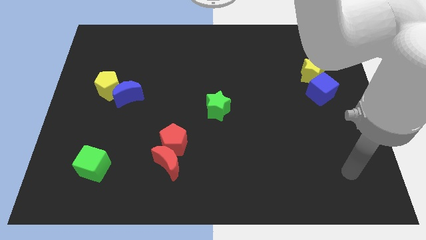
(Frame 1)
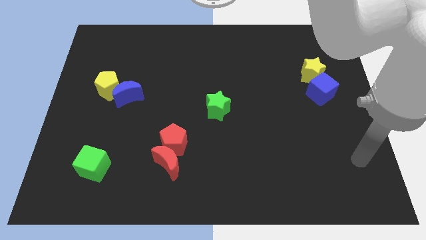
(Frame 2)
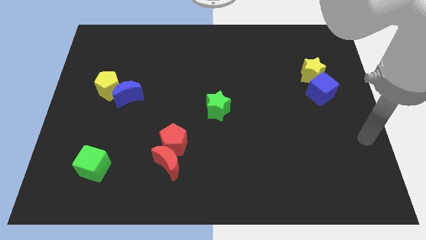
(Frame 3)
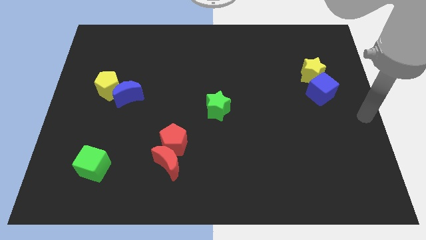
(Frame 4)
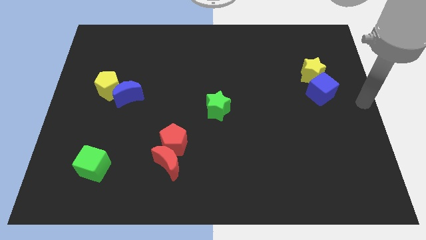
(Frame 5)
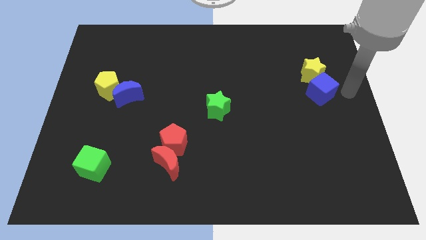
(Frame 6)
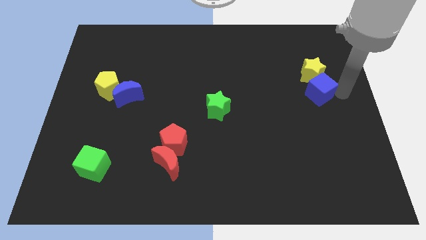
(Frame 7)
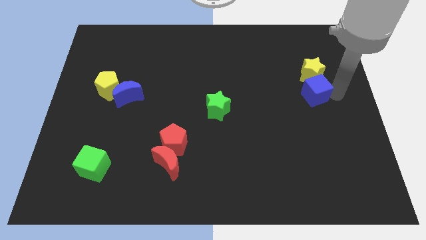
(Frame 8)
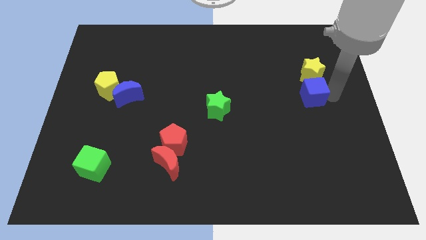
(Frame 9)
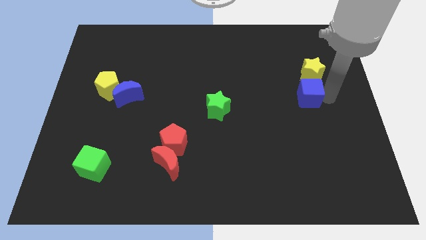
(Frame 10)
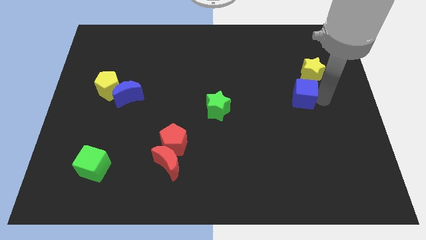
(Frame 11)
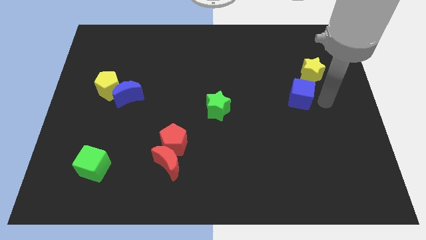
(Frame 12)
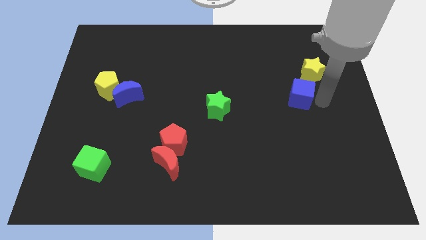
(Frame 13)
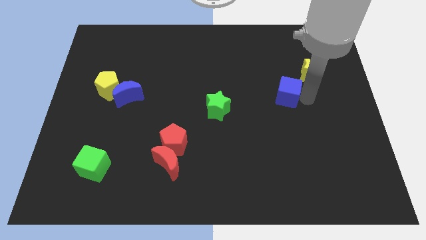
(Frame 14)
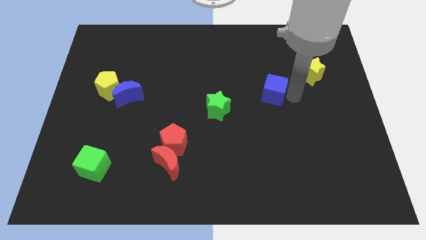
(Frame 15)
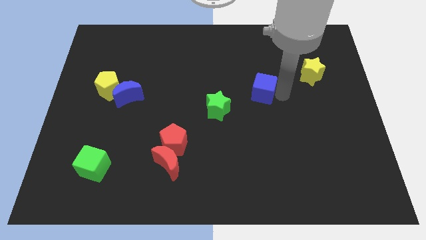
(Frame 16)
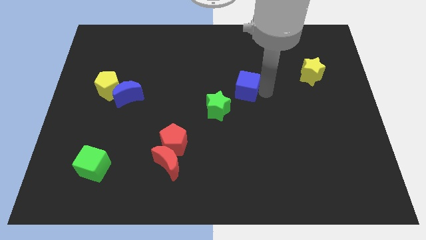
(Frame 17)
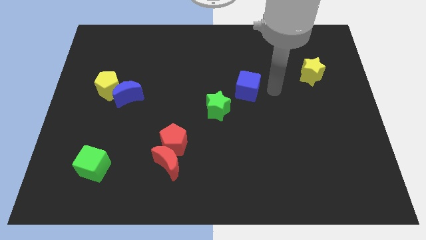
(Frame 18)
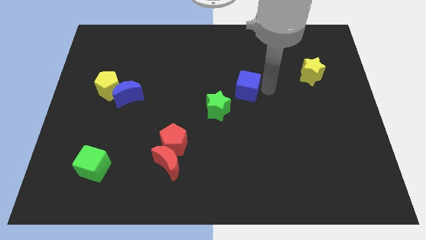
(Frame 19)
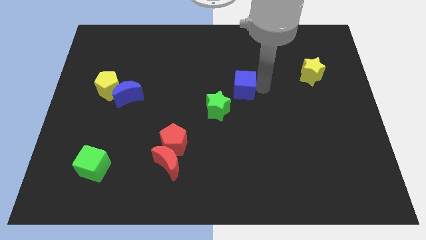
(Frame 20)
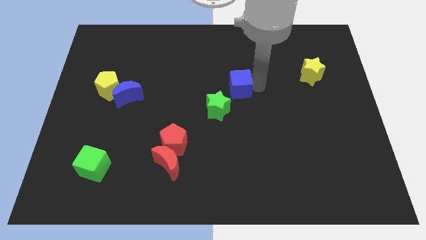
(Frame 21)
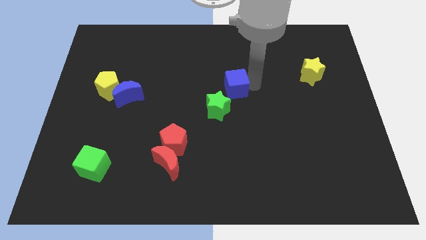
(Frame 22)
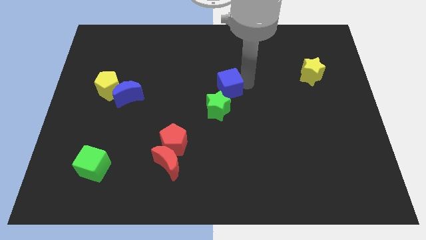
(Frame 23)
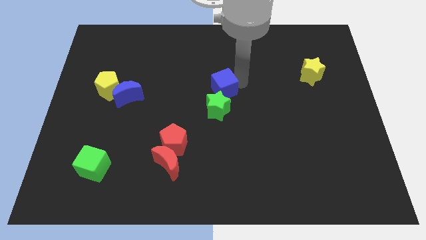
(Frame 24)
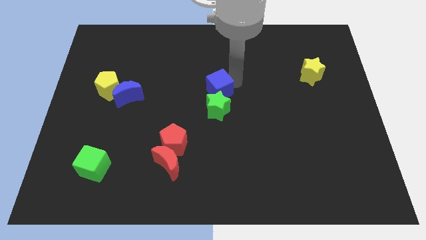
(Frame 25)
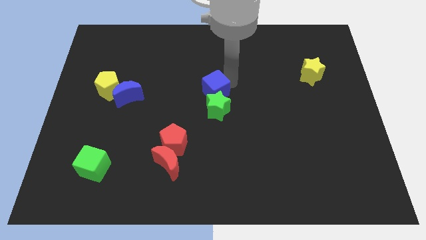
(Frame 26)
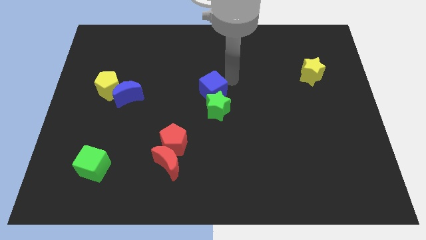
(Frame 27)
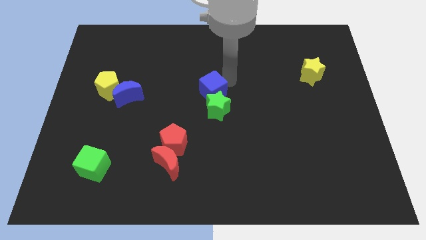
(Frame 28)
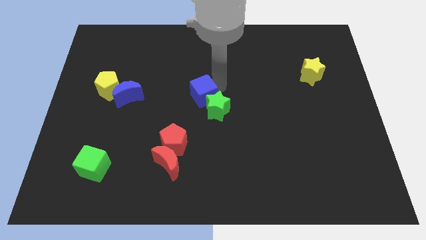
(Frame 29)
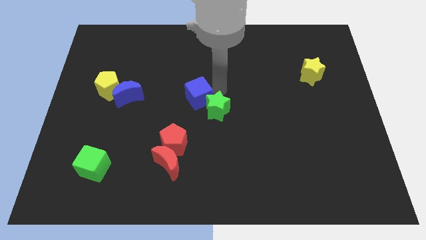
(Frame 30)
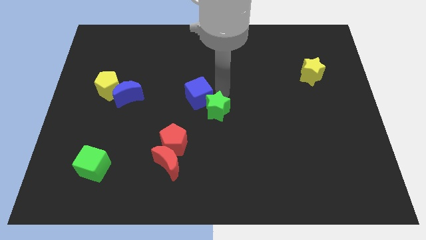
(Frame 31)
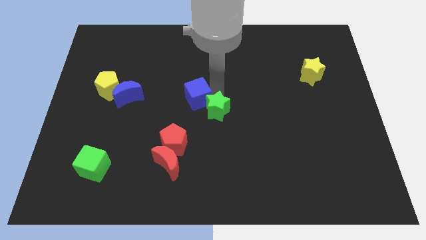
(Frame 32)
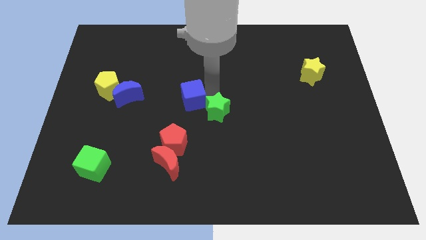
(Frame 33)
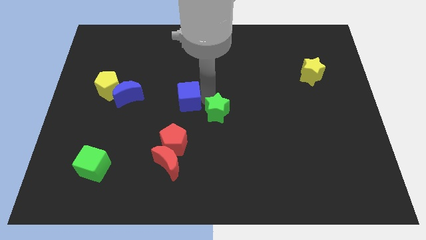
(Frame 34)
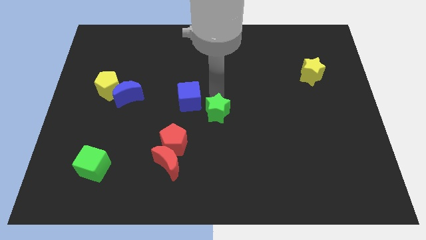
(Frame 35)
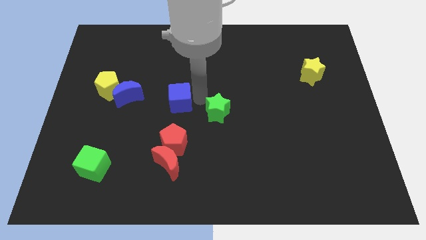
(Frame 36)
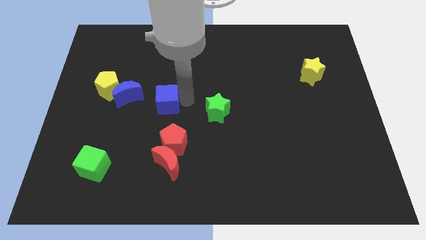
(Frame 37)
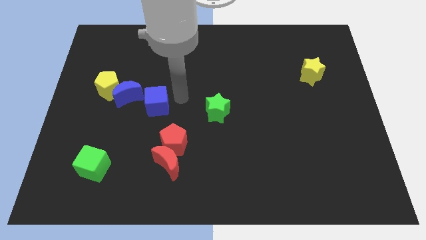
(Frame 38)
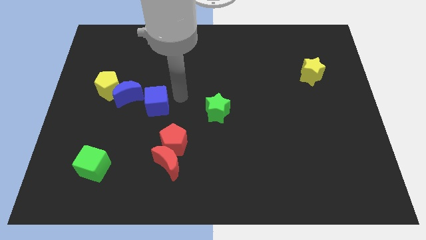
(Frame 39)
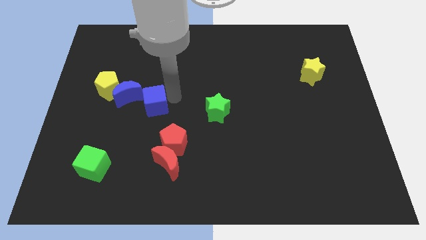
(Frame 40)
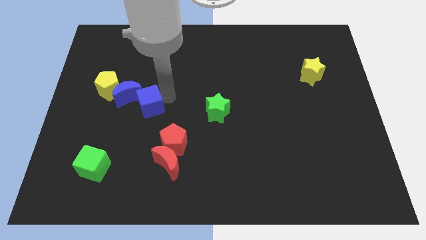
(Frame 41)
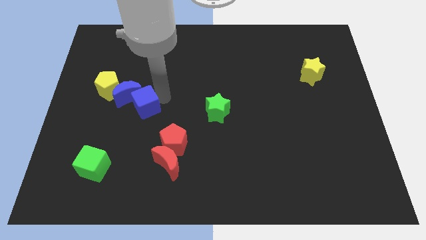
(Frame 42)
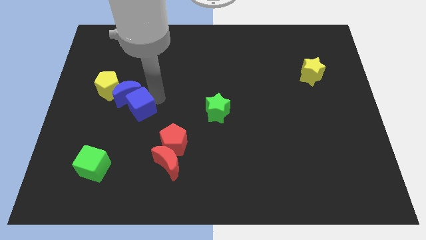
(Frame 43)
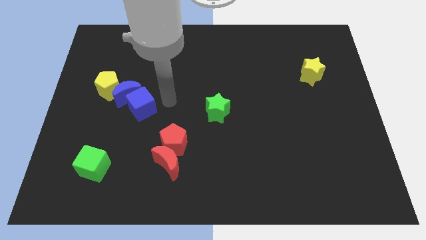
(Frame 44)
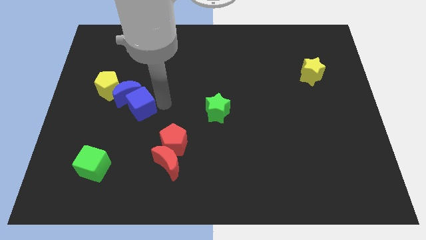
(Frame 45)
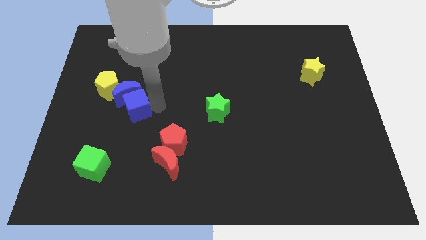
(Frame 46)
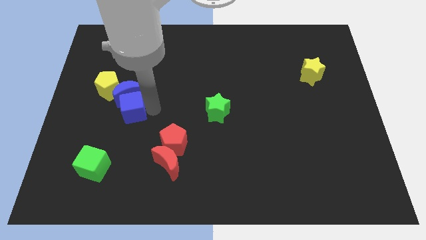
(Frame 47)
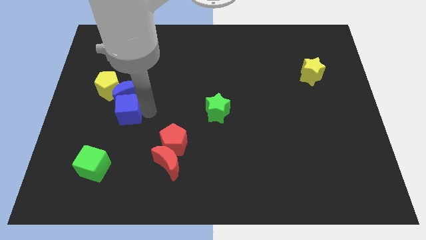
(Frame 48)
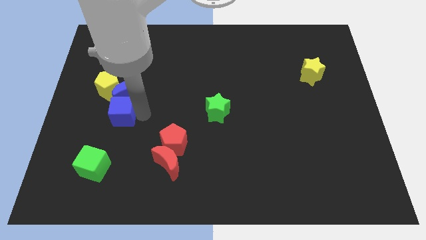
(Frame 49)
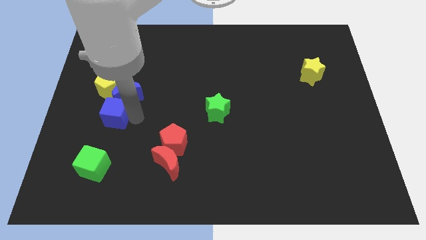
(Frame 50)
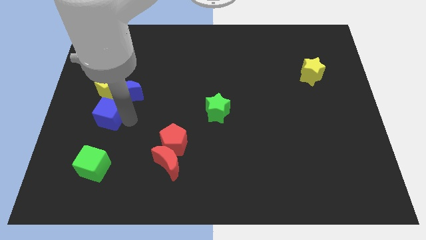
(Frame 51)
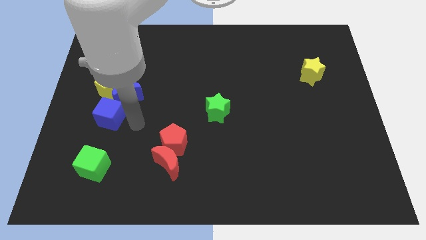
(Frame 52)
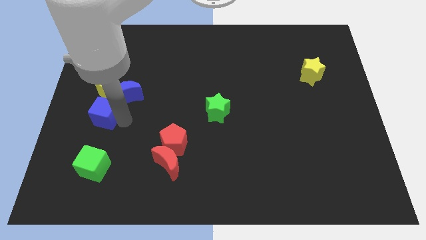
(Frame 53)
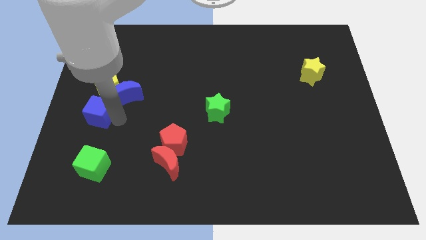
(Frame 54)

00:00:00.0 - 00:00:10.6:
push the blue cube to the left side of the board

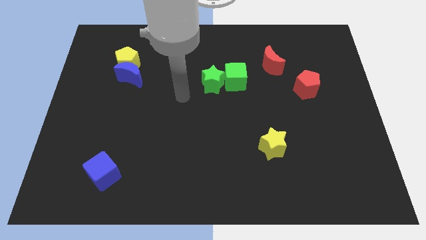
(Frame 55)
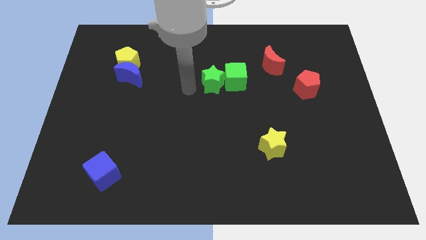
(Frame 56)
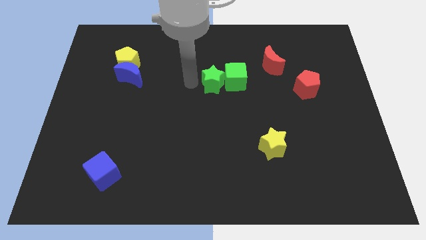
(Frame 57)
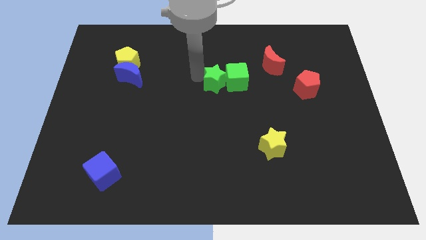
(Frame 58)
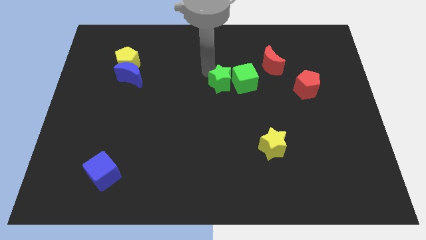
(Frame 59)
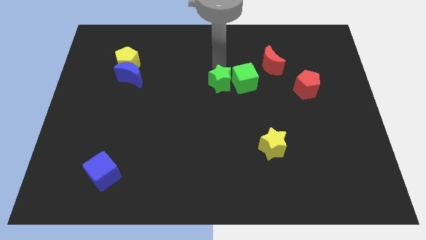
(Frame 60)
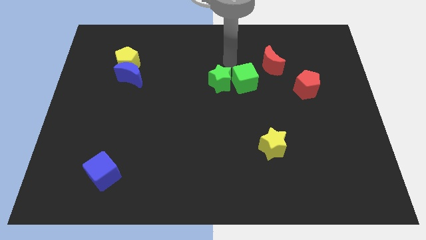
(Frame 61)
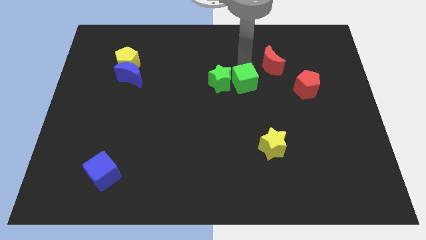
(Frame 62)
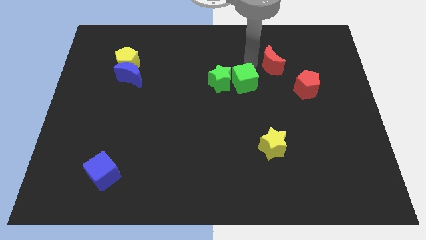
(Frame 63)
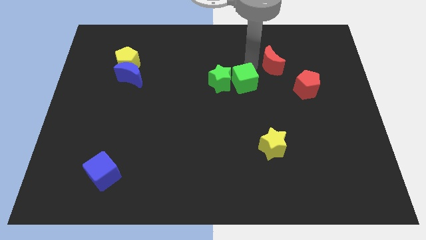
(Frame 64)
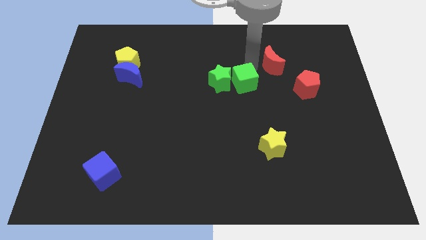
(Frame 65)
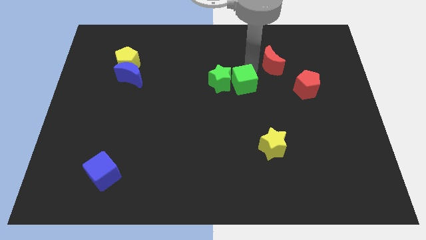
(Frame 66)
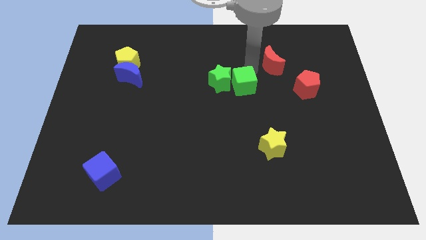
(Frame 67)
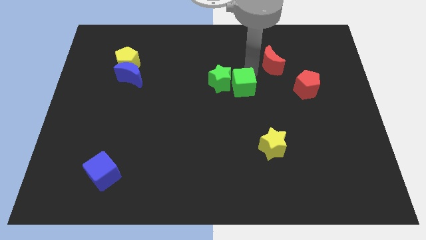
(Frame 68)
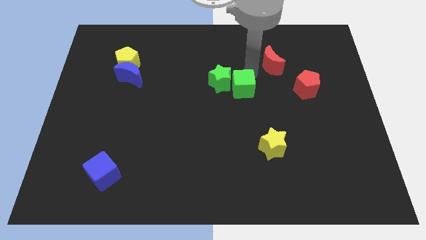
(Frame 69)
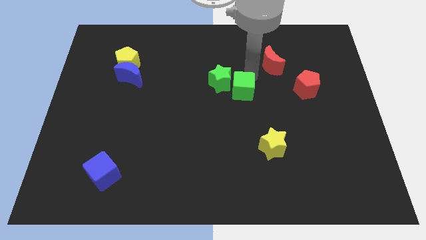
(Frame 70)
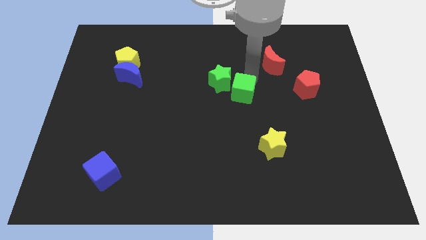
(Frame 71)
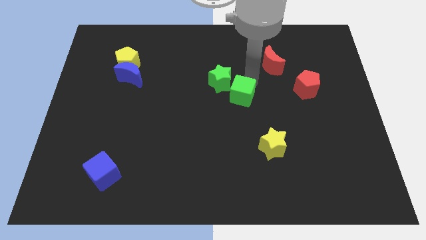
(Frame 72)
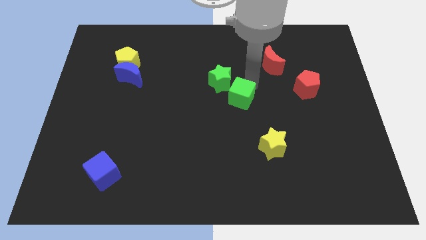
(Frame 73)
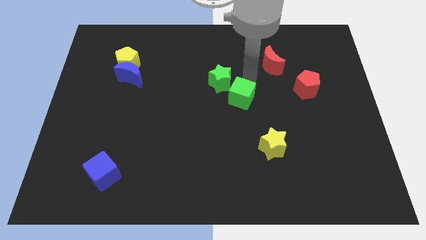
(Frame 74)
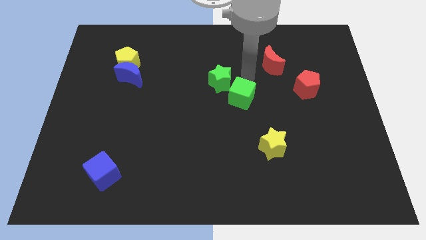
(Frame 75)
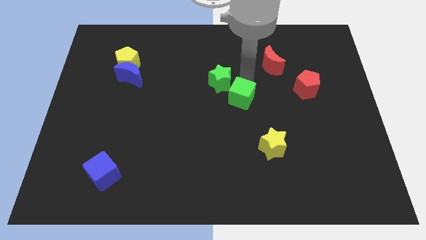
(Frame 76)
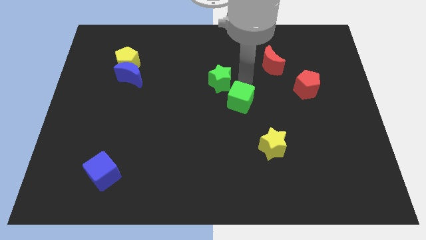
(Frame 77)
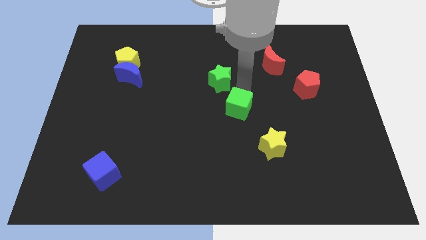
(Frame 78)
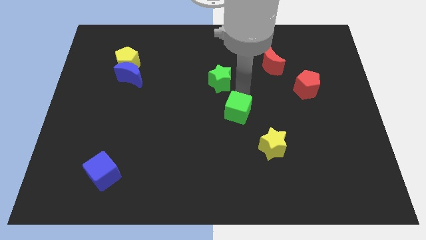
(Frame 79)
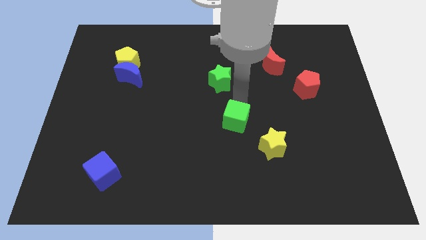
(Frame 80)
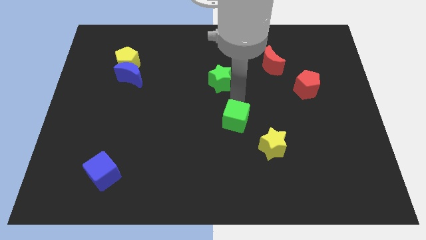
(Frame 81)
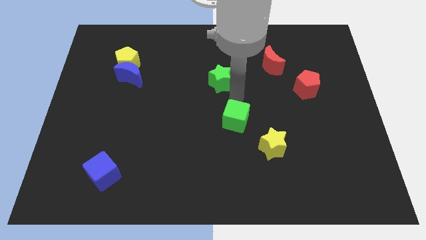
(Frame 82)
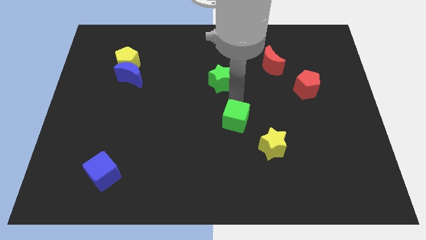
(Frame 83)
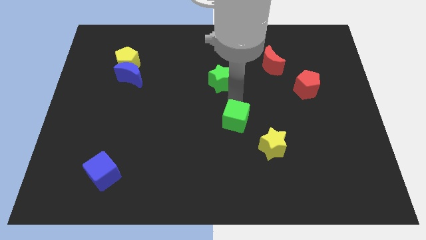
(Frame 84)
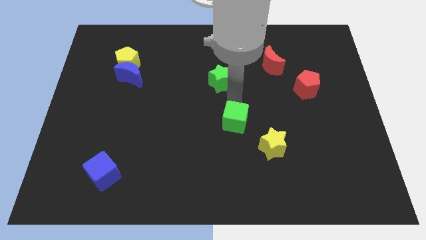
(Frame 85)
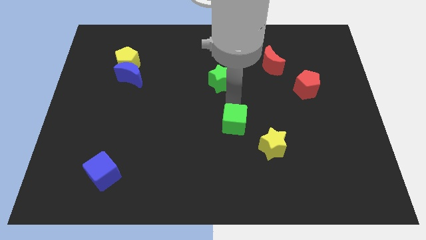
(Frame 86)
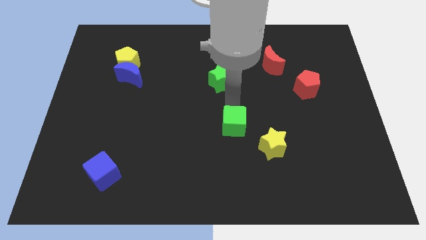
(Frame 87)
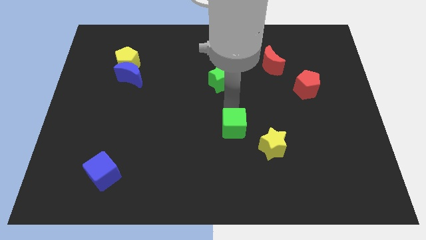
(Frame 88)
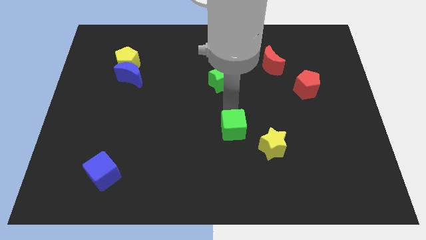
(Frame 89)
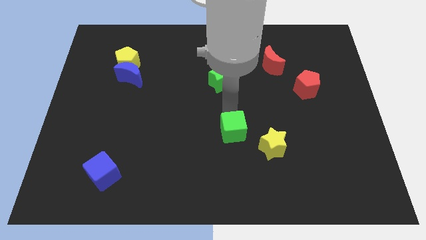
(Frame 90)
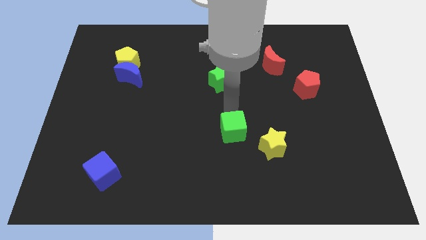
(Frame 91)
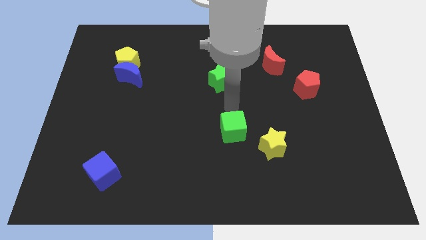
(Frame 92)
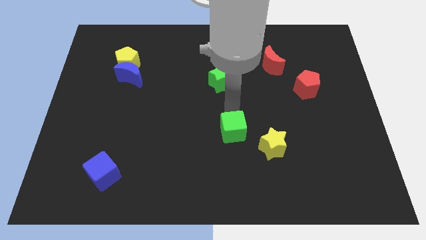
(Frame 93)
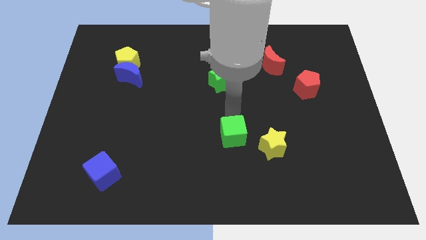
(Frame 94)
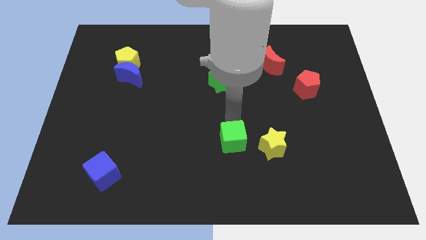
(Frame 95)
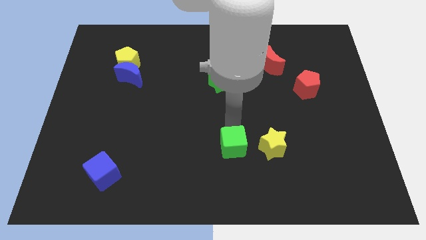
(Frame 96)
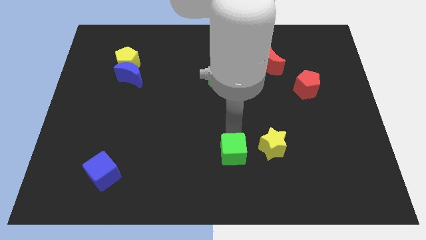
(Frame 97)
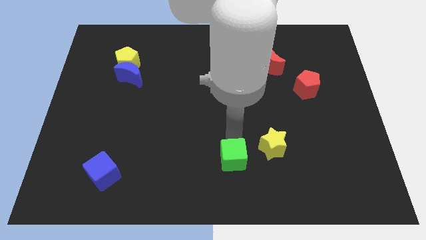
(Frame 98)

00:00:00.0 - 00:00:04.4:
move the green cube to the bottom side
